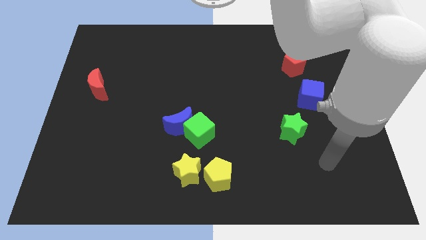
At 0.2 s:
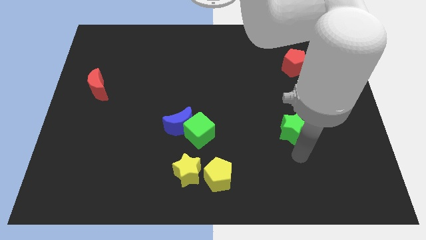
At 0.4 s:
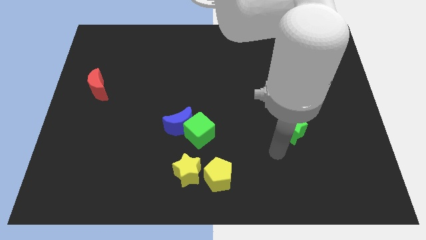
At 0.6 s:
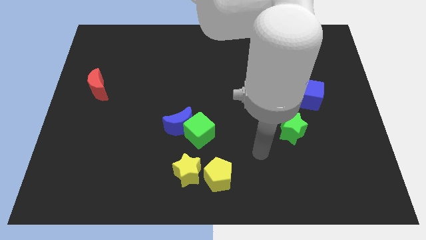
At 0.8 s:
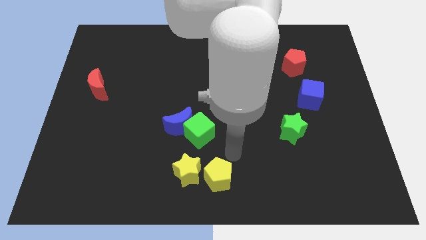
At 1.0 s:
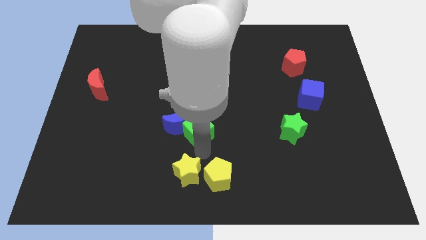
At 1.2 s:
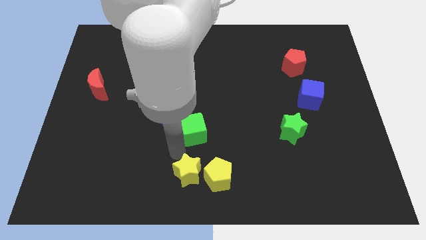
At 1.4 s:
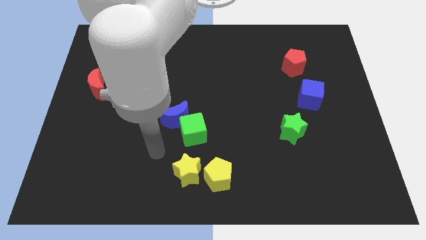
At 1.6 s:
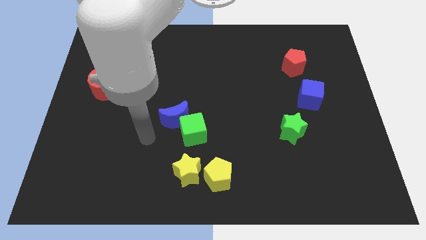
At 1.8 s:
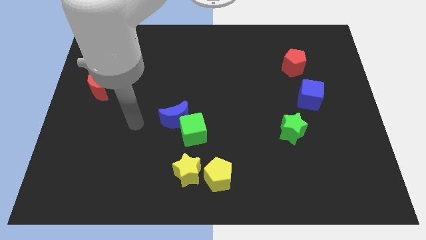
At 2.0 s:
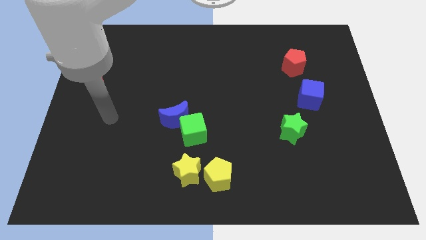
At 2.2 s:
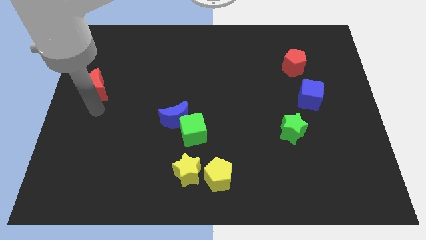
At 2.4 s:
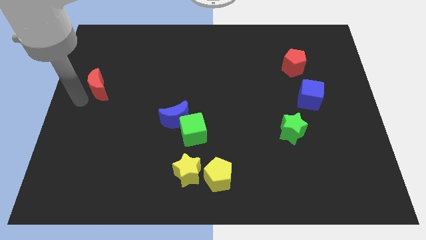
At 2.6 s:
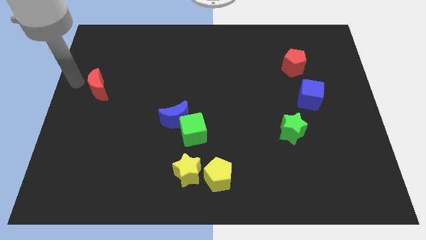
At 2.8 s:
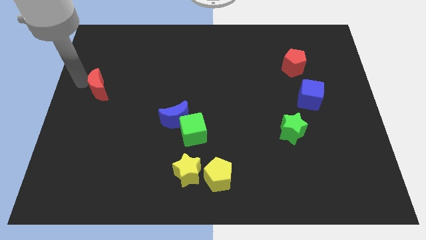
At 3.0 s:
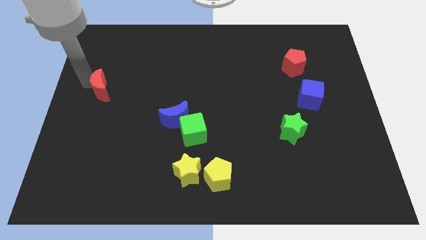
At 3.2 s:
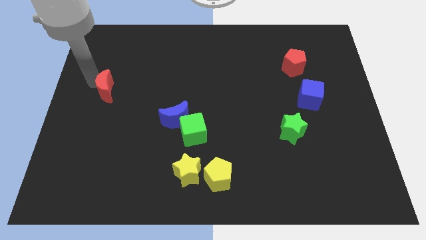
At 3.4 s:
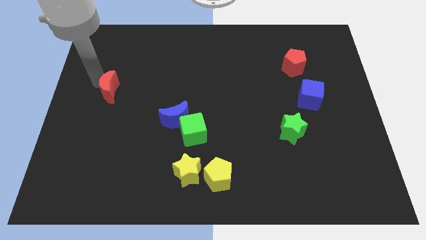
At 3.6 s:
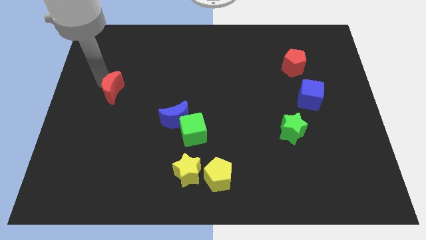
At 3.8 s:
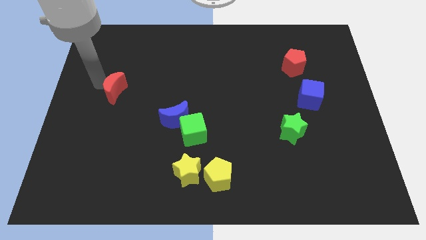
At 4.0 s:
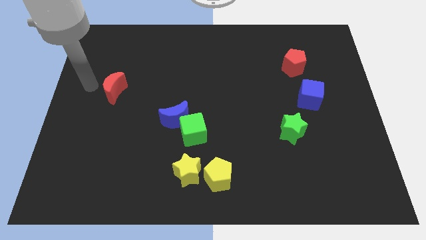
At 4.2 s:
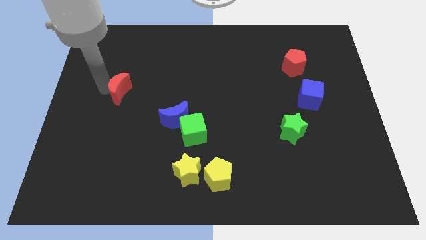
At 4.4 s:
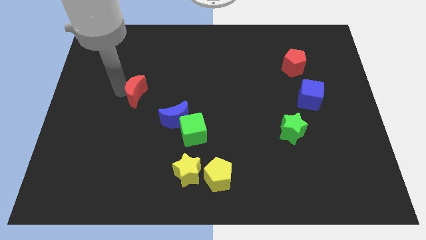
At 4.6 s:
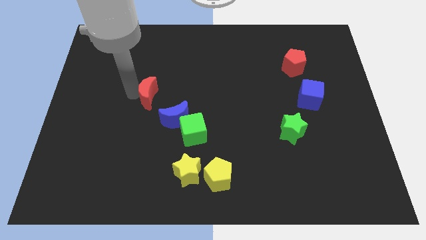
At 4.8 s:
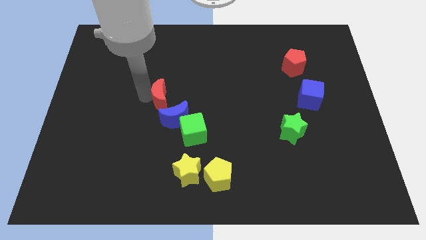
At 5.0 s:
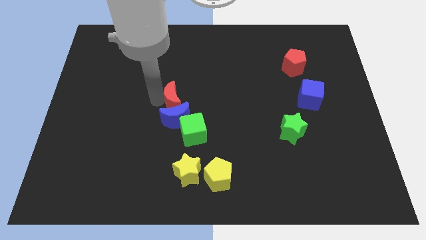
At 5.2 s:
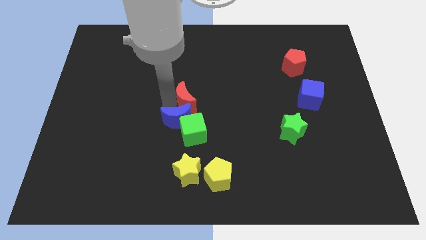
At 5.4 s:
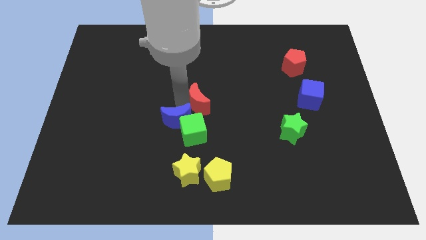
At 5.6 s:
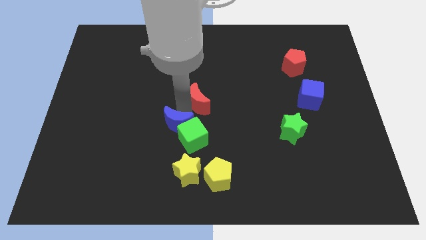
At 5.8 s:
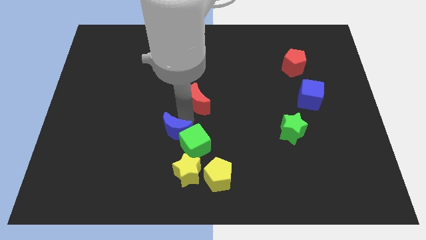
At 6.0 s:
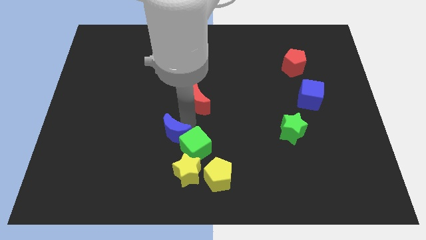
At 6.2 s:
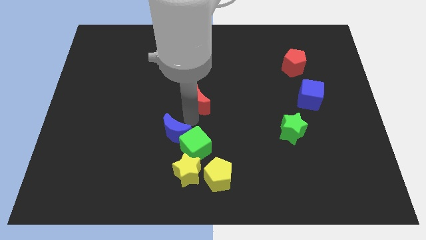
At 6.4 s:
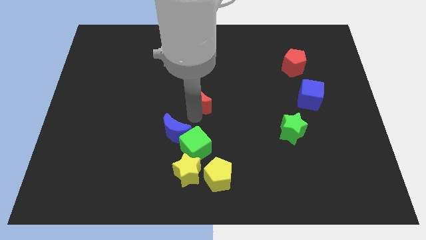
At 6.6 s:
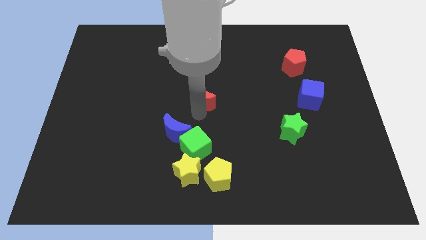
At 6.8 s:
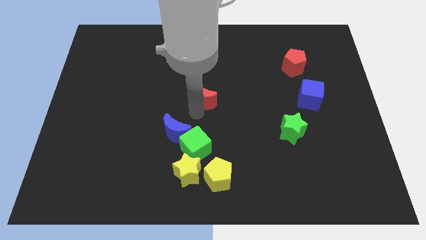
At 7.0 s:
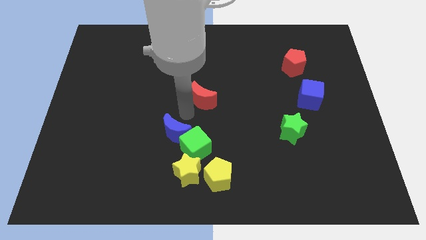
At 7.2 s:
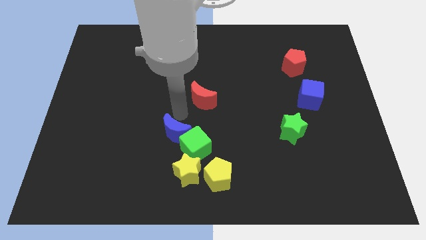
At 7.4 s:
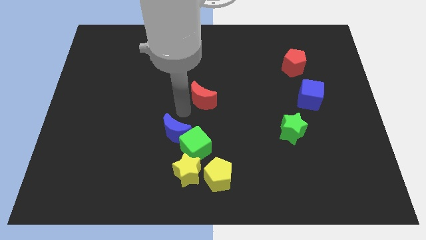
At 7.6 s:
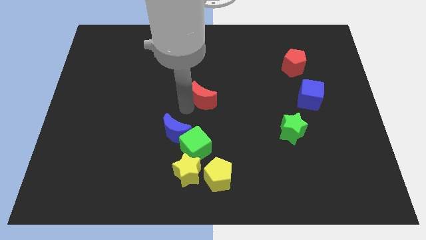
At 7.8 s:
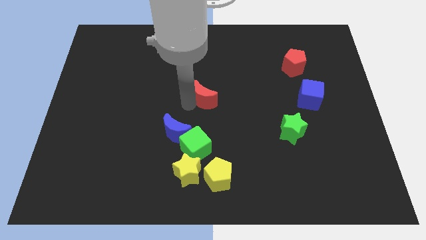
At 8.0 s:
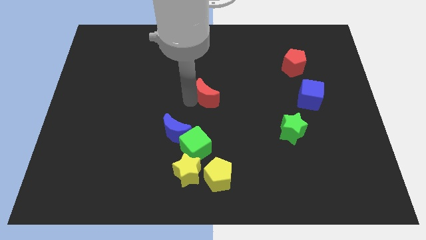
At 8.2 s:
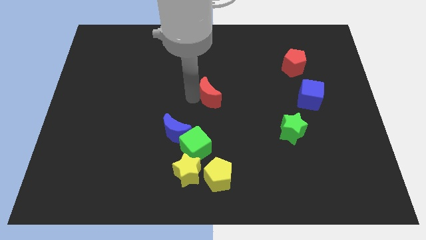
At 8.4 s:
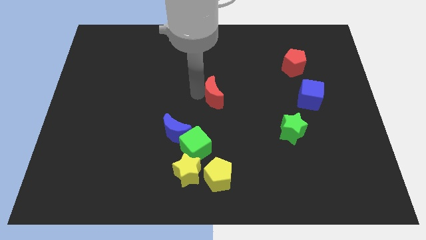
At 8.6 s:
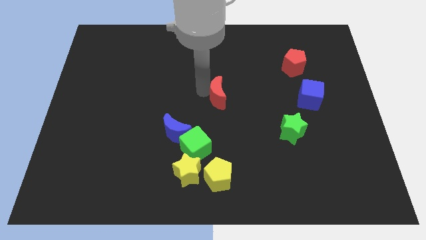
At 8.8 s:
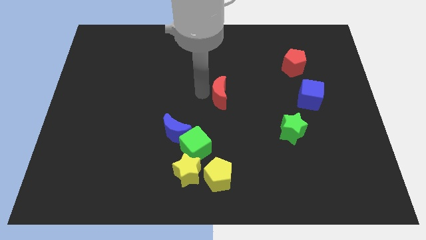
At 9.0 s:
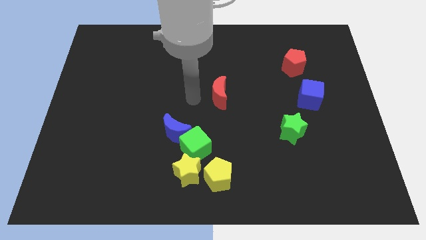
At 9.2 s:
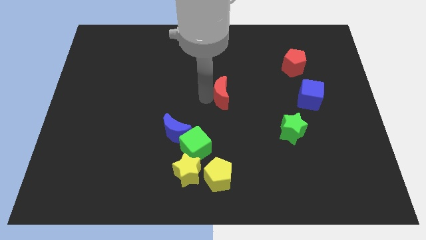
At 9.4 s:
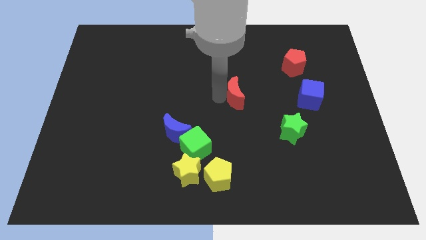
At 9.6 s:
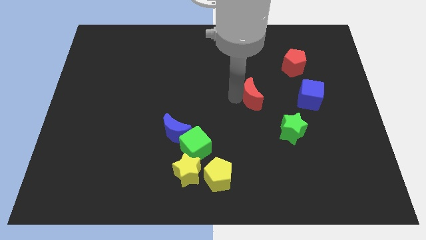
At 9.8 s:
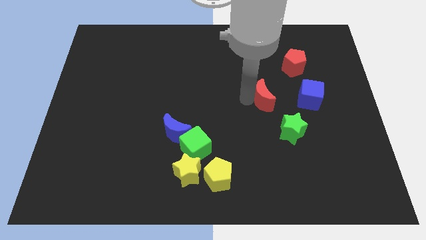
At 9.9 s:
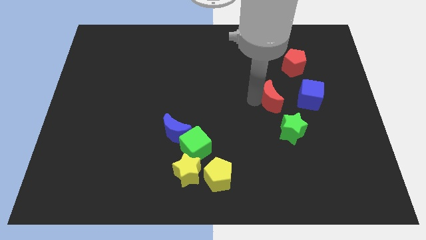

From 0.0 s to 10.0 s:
push the red moon above the green star

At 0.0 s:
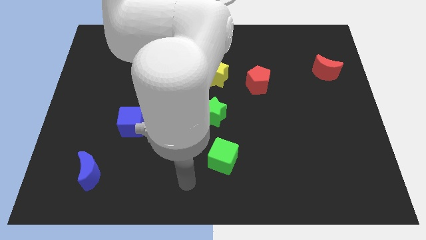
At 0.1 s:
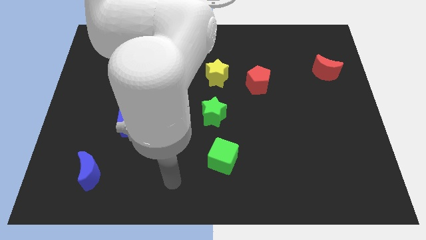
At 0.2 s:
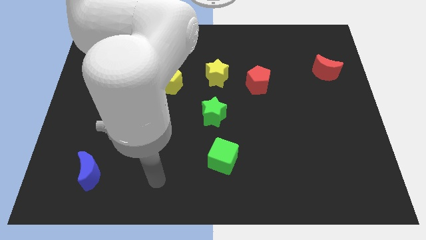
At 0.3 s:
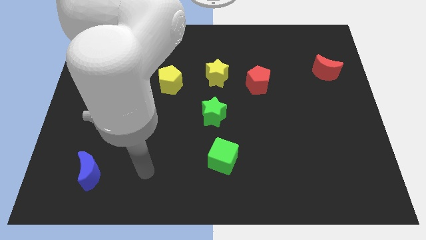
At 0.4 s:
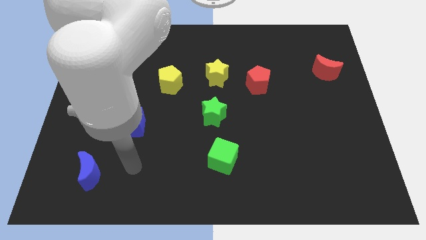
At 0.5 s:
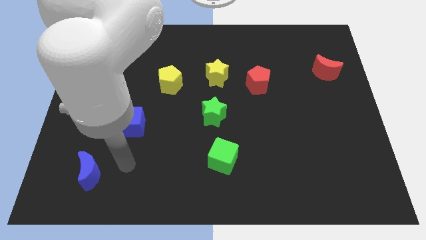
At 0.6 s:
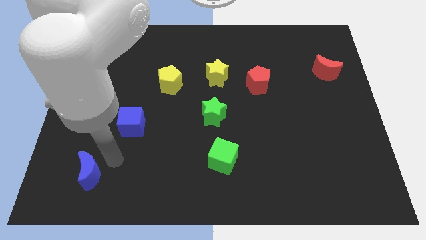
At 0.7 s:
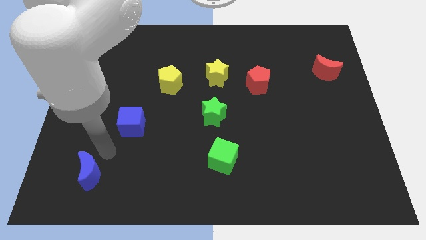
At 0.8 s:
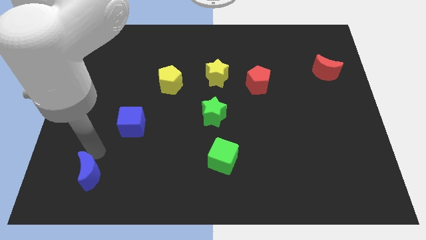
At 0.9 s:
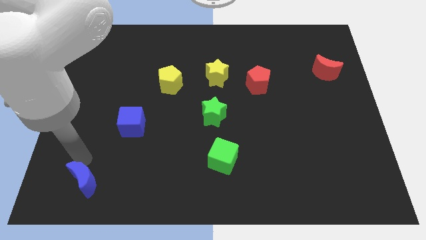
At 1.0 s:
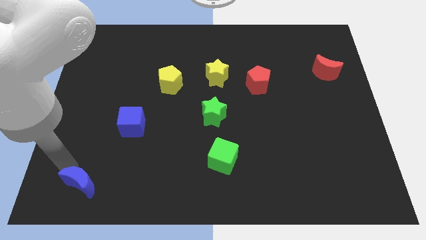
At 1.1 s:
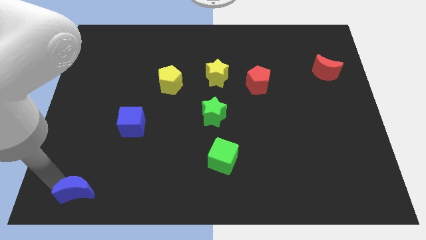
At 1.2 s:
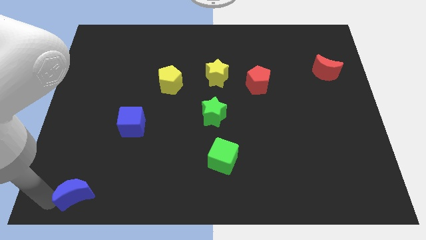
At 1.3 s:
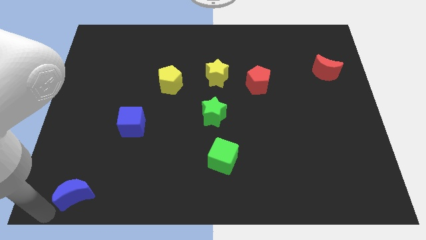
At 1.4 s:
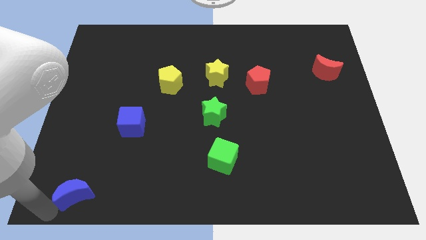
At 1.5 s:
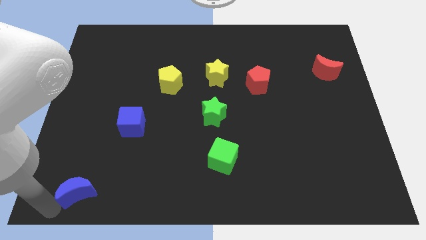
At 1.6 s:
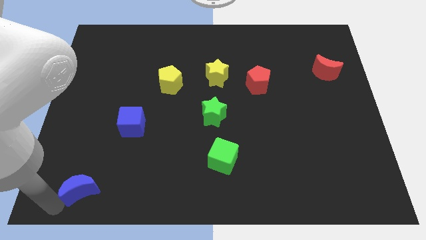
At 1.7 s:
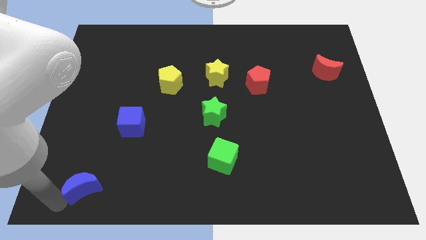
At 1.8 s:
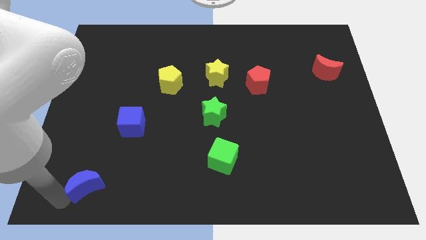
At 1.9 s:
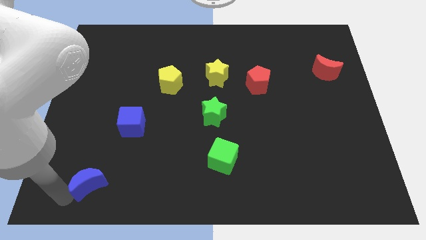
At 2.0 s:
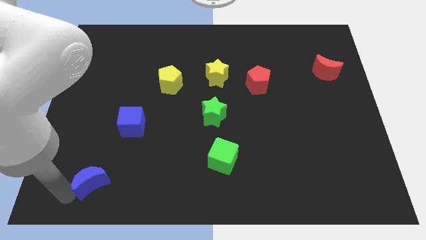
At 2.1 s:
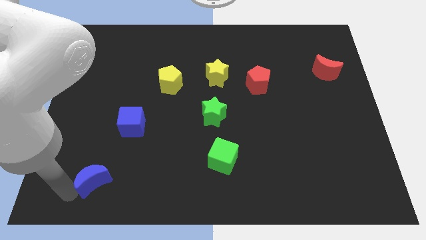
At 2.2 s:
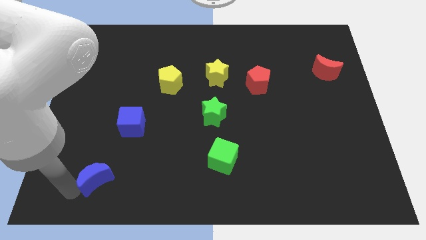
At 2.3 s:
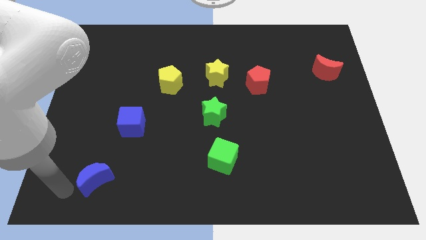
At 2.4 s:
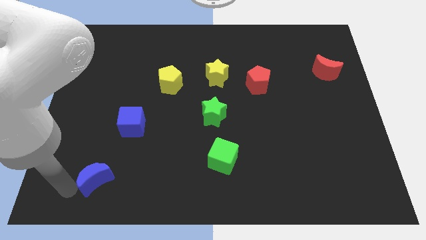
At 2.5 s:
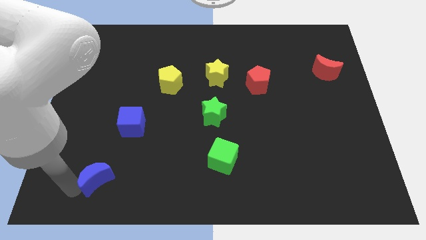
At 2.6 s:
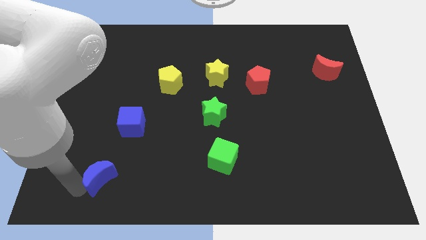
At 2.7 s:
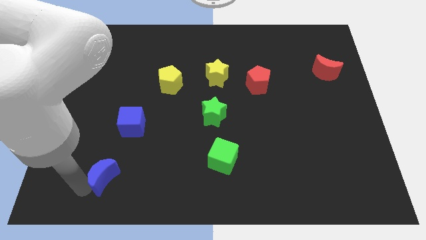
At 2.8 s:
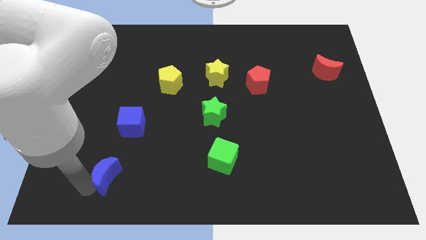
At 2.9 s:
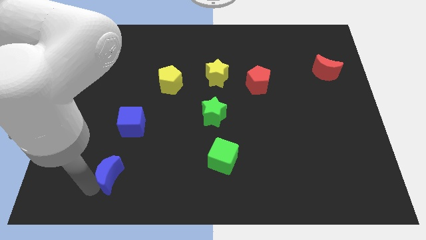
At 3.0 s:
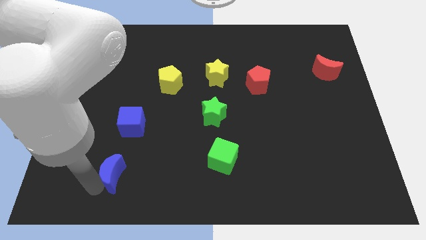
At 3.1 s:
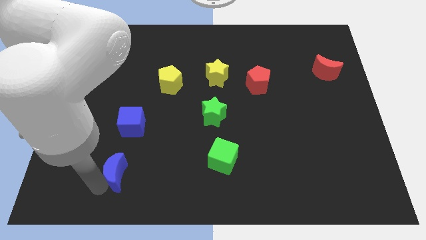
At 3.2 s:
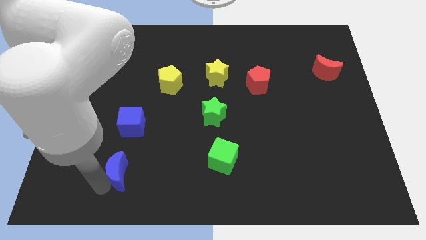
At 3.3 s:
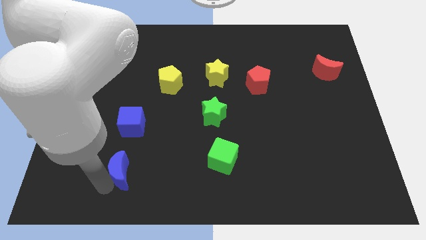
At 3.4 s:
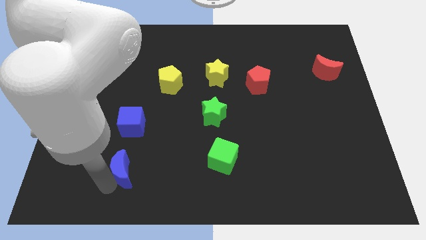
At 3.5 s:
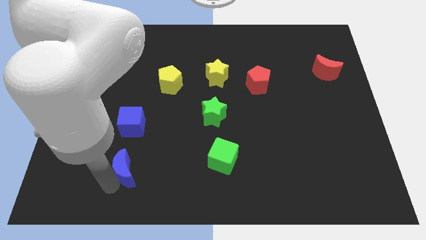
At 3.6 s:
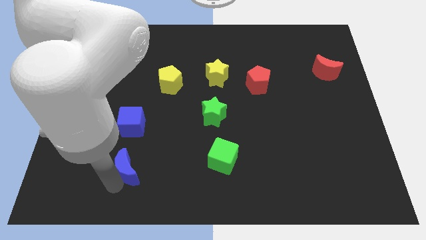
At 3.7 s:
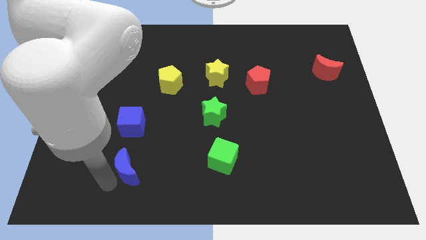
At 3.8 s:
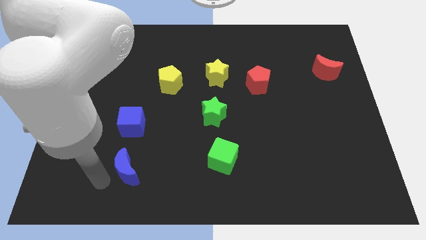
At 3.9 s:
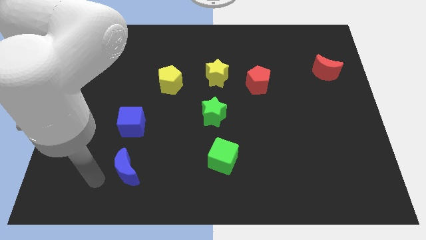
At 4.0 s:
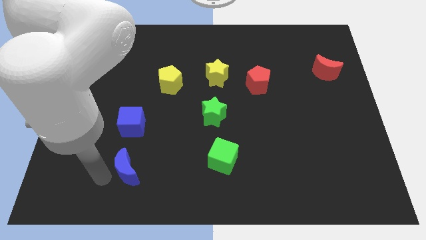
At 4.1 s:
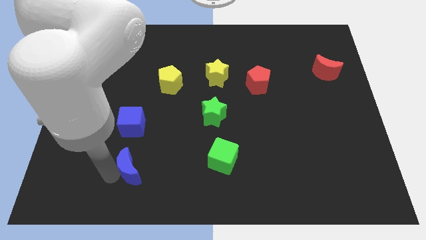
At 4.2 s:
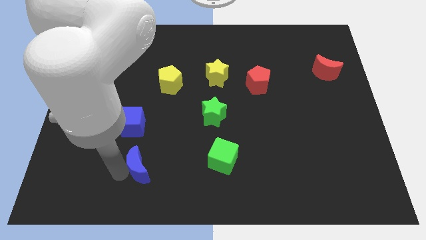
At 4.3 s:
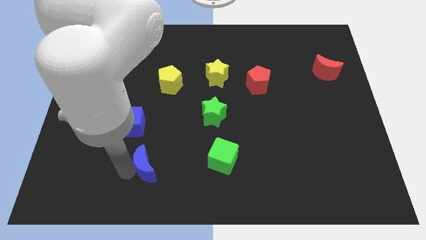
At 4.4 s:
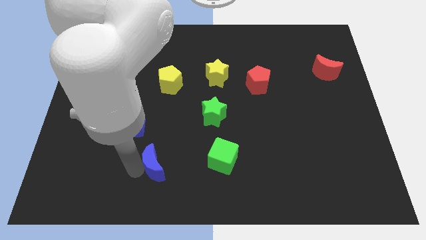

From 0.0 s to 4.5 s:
put the blue moon left of the green cube
